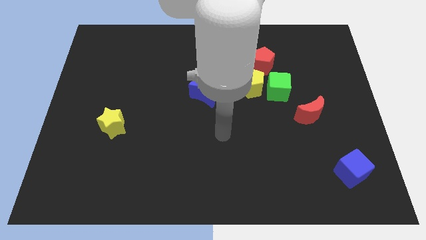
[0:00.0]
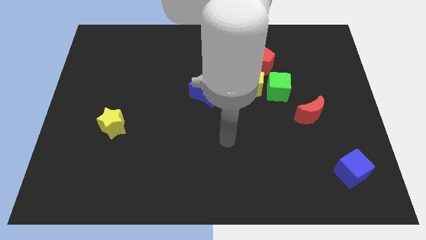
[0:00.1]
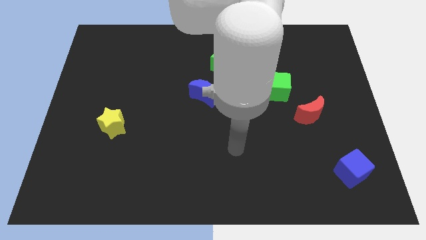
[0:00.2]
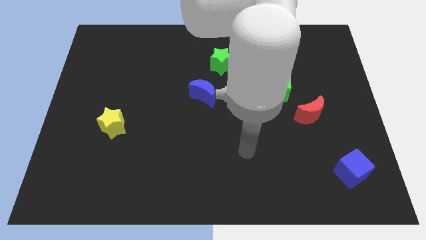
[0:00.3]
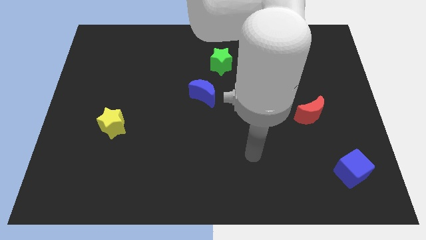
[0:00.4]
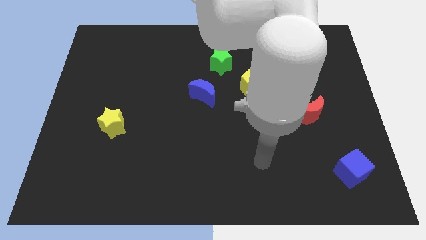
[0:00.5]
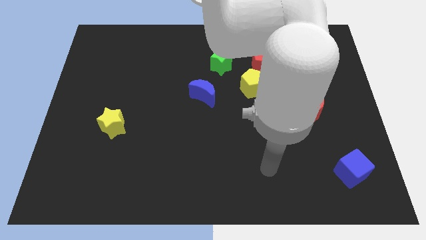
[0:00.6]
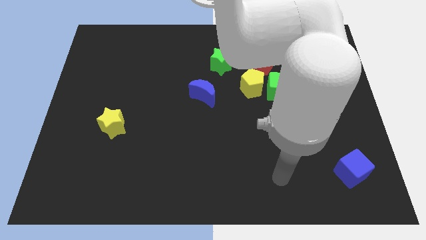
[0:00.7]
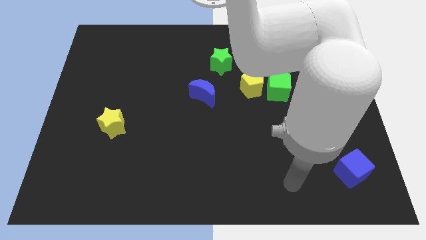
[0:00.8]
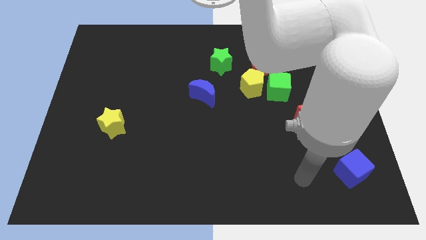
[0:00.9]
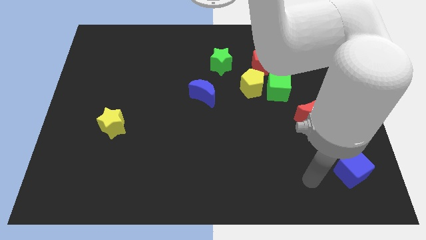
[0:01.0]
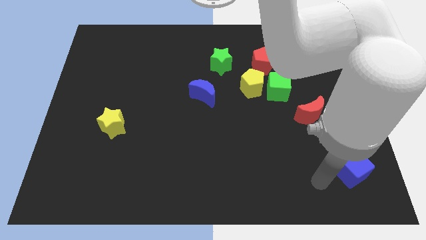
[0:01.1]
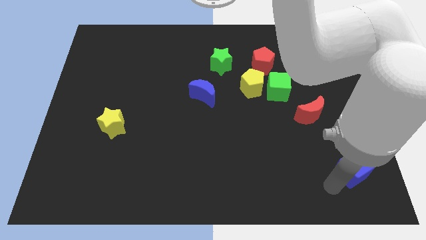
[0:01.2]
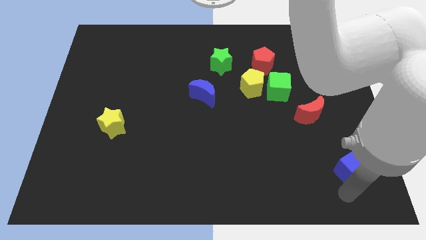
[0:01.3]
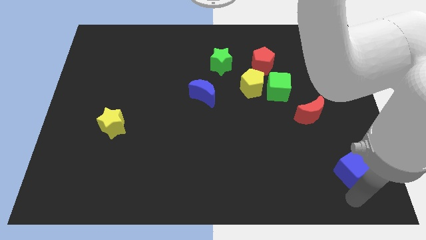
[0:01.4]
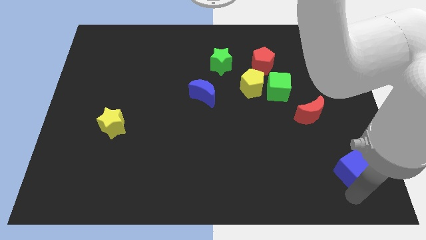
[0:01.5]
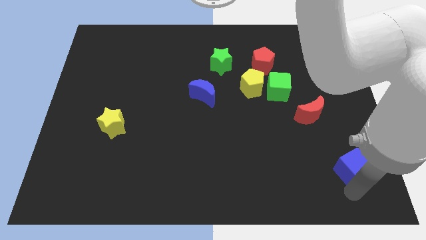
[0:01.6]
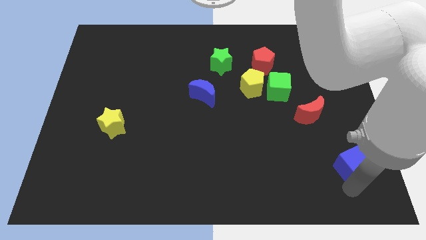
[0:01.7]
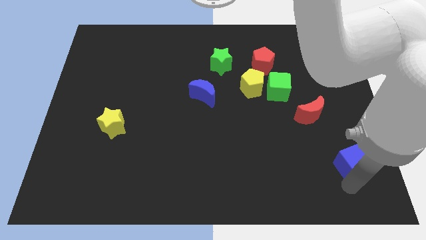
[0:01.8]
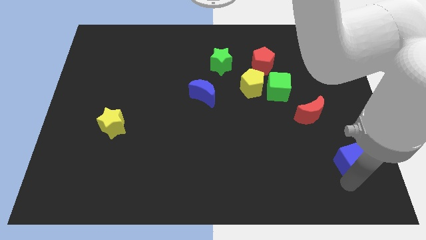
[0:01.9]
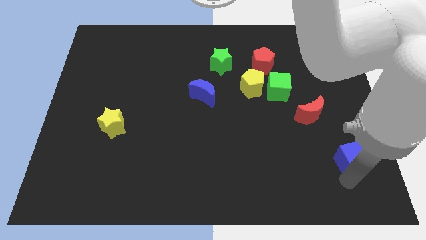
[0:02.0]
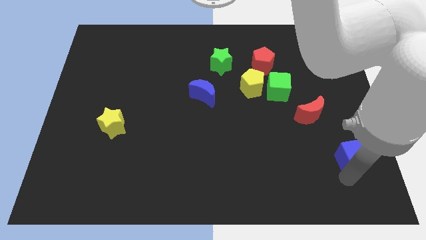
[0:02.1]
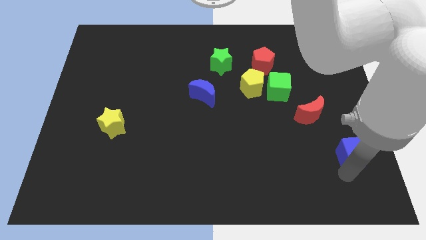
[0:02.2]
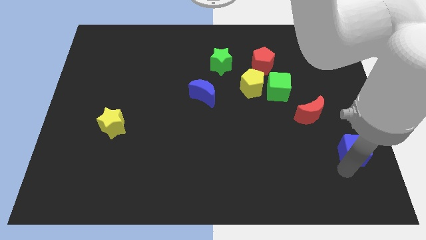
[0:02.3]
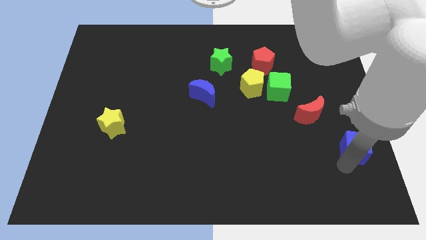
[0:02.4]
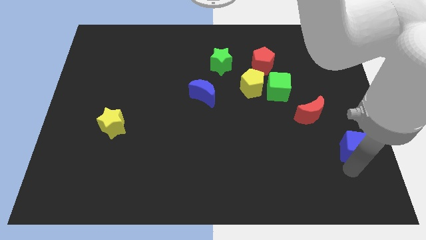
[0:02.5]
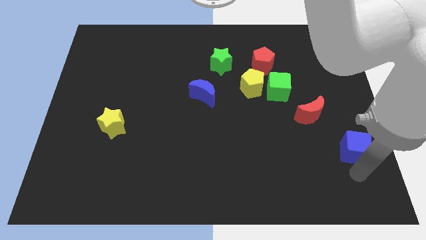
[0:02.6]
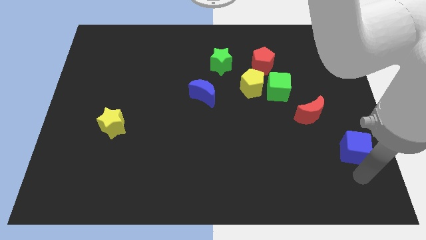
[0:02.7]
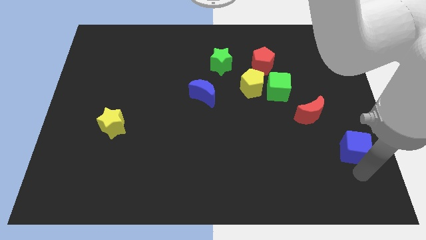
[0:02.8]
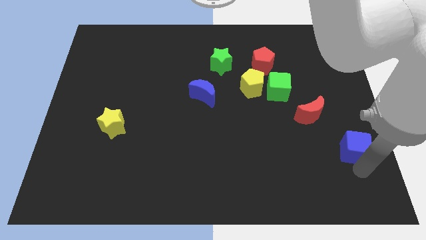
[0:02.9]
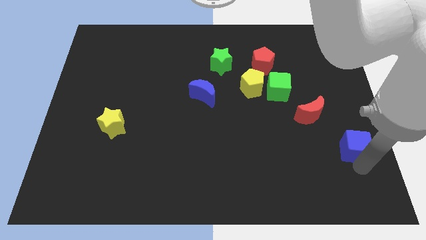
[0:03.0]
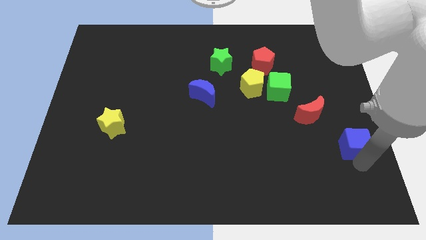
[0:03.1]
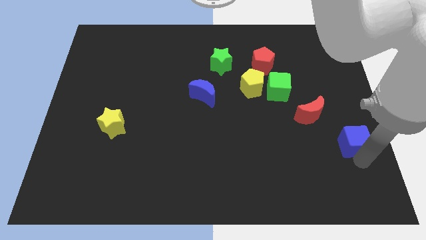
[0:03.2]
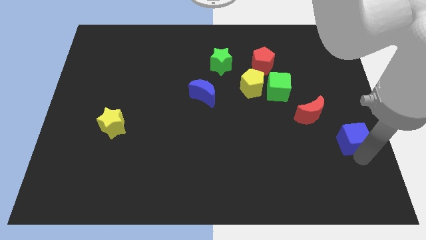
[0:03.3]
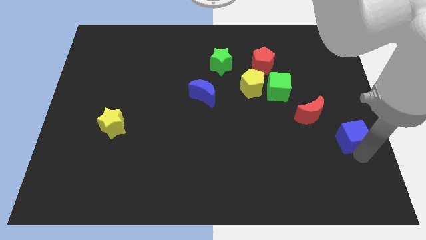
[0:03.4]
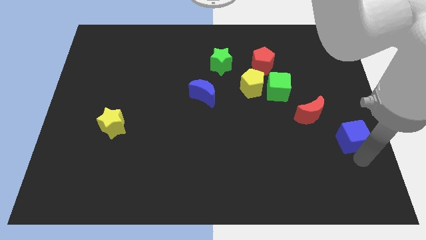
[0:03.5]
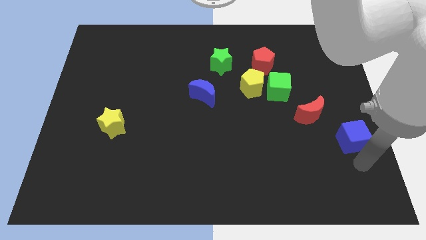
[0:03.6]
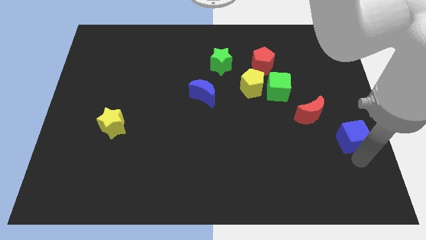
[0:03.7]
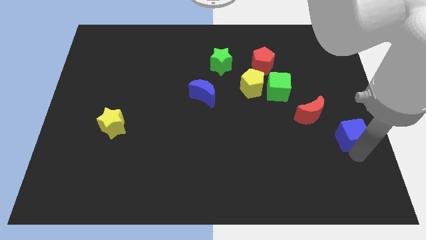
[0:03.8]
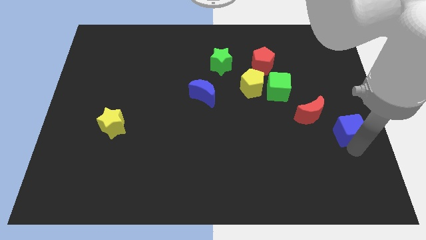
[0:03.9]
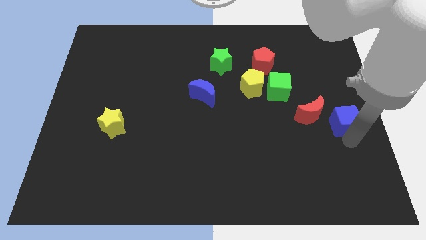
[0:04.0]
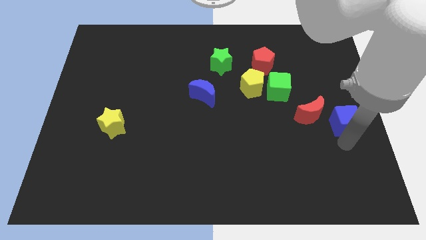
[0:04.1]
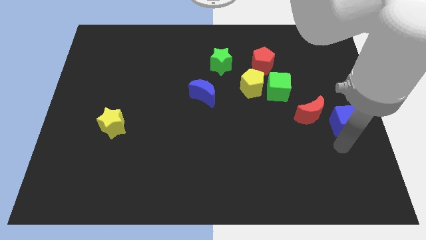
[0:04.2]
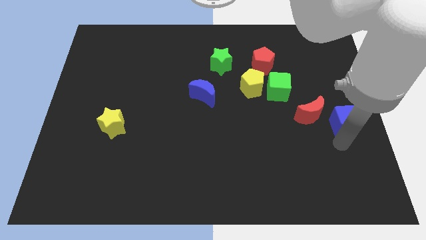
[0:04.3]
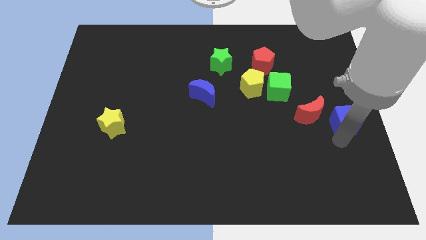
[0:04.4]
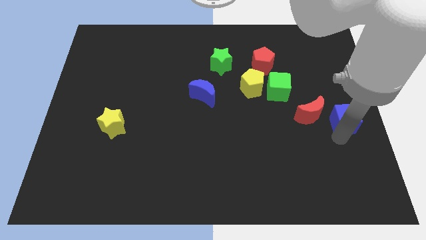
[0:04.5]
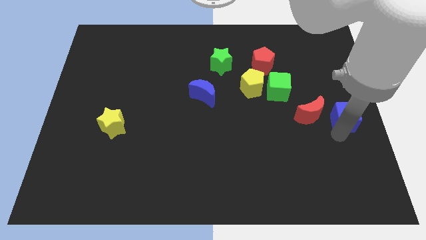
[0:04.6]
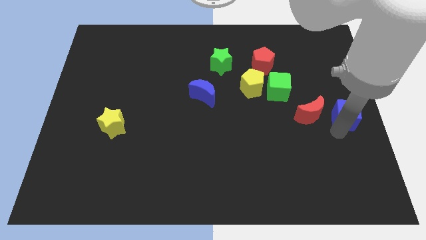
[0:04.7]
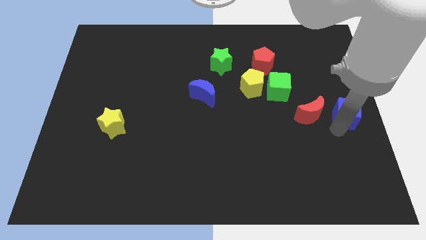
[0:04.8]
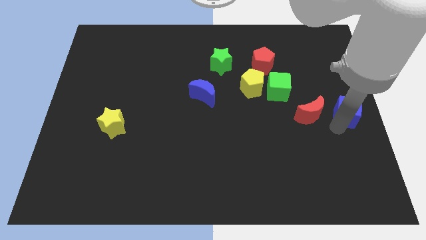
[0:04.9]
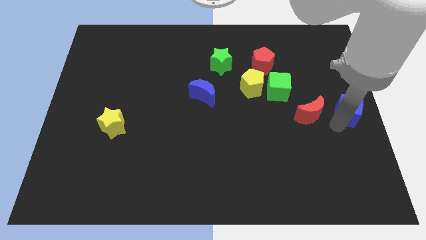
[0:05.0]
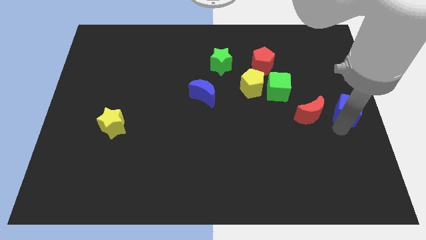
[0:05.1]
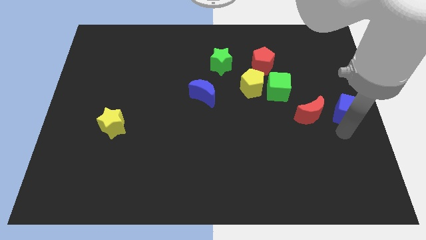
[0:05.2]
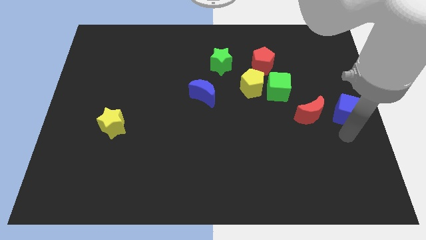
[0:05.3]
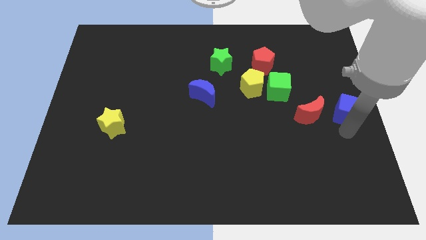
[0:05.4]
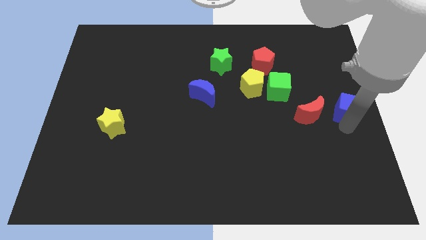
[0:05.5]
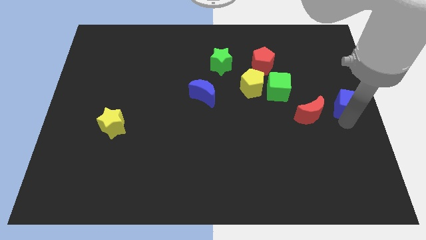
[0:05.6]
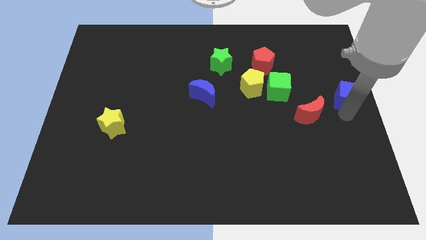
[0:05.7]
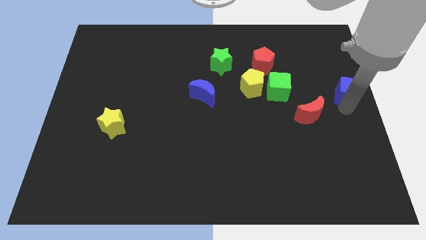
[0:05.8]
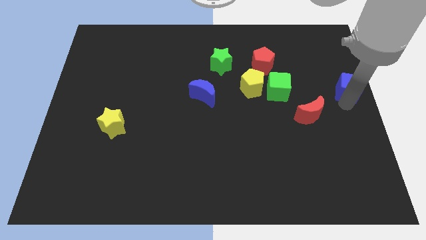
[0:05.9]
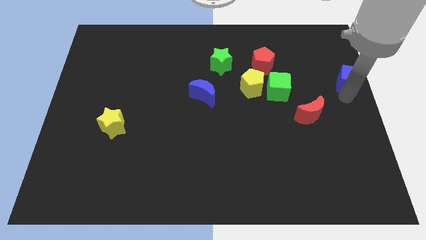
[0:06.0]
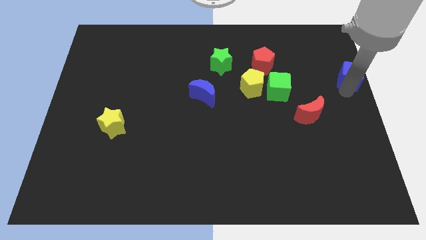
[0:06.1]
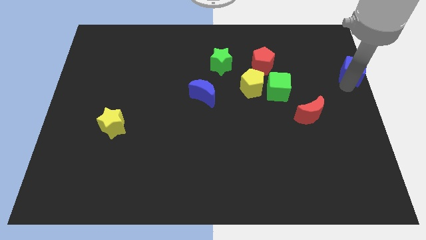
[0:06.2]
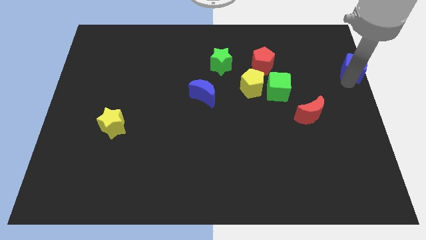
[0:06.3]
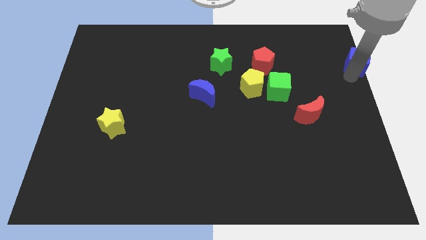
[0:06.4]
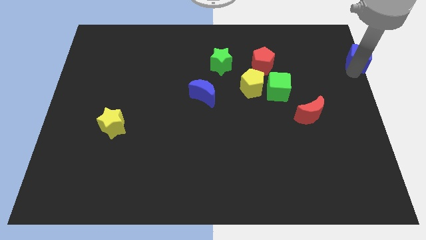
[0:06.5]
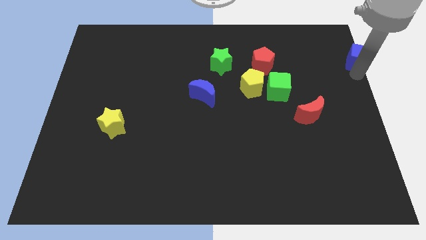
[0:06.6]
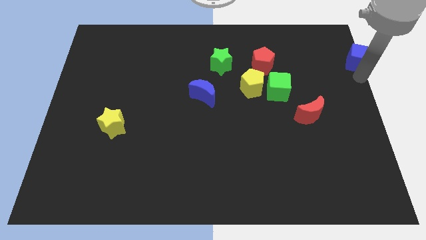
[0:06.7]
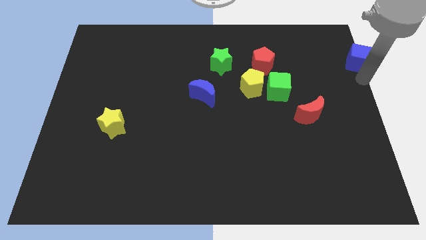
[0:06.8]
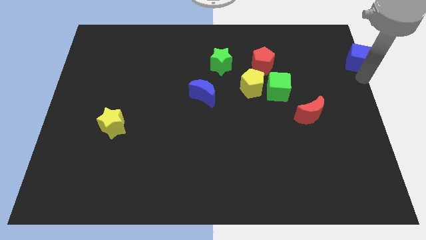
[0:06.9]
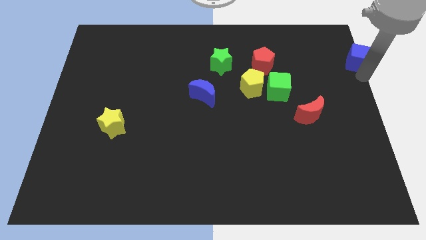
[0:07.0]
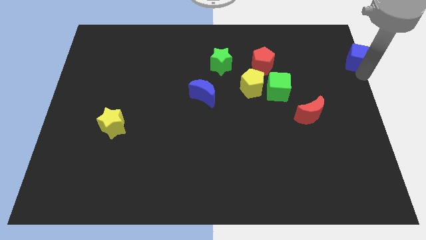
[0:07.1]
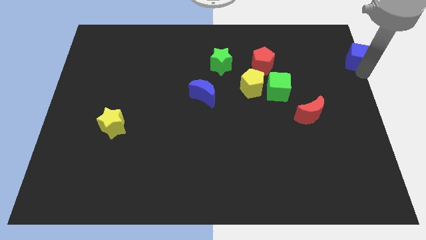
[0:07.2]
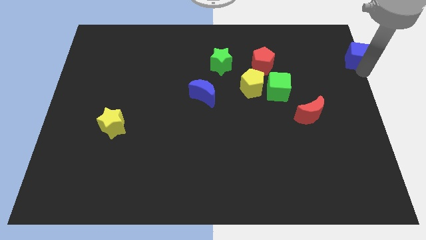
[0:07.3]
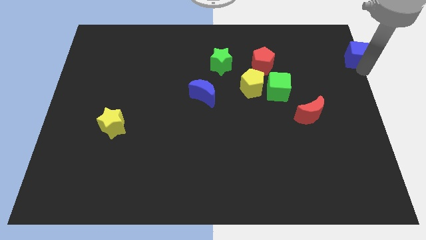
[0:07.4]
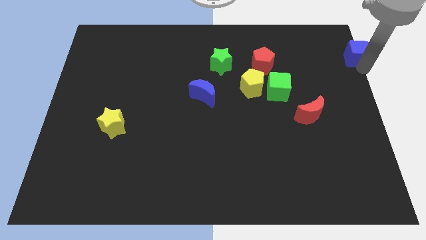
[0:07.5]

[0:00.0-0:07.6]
push the blue cube to the upper right corner
